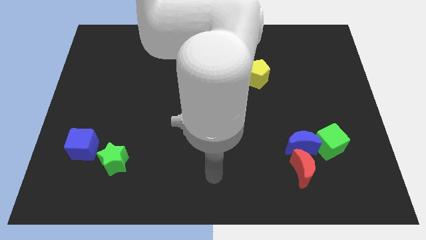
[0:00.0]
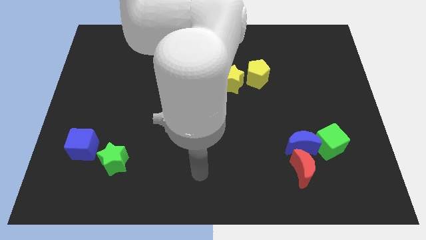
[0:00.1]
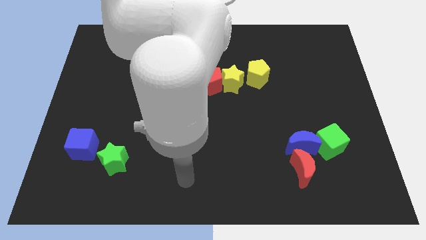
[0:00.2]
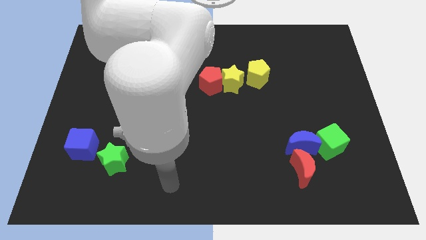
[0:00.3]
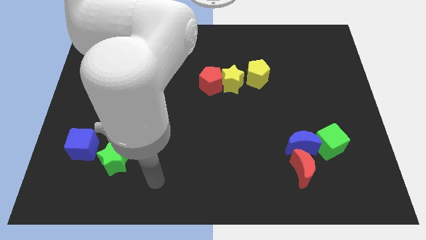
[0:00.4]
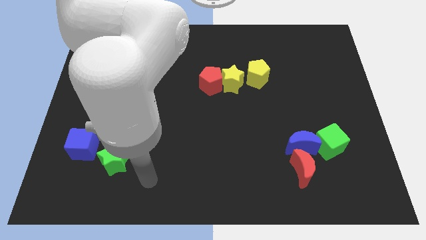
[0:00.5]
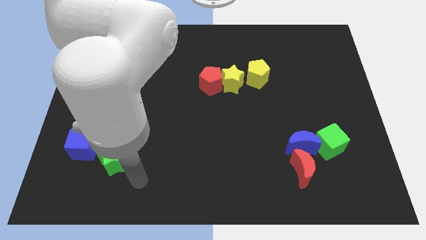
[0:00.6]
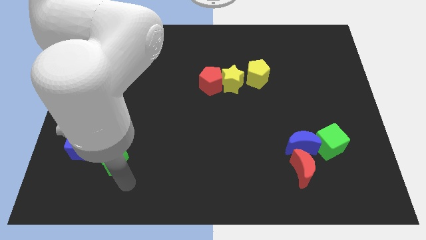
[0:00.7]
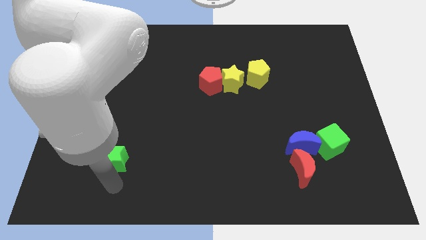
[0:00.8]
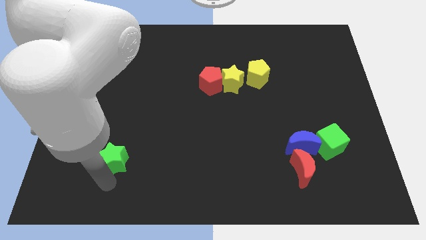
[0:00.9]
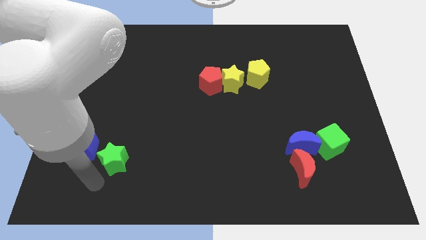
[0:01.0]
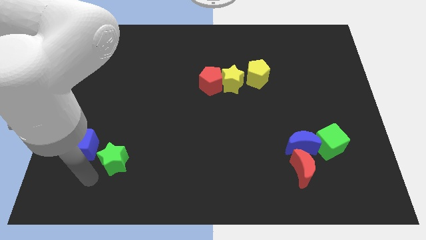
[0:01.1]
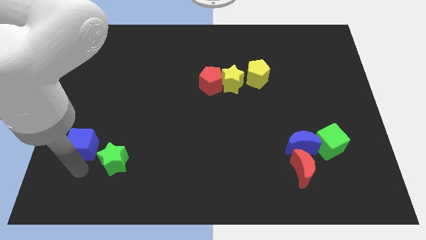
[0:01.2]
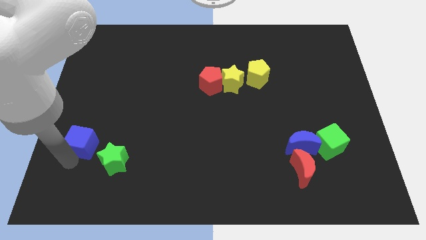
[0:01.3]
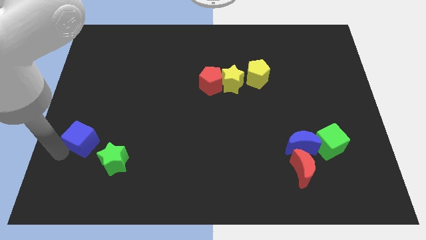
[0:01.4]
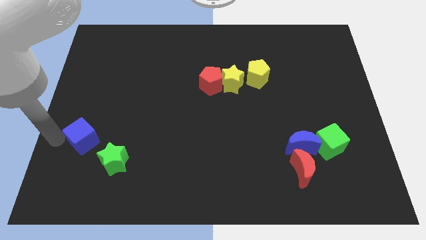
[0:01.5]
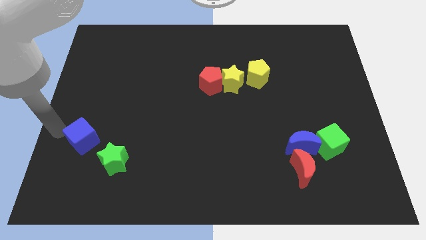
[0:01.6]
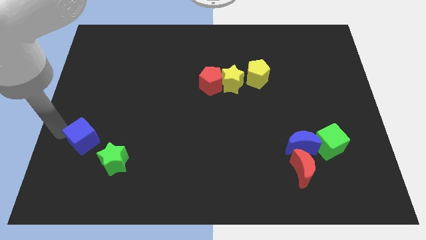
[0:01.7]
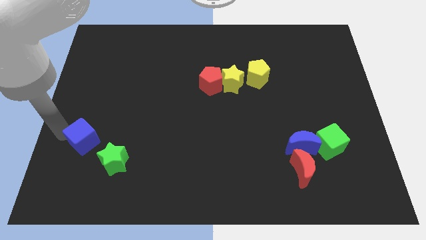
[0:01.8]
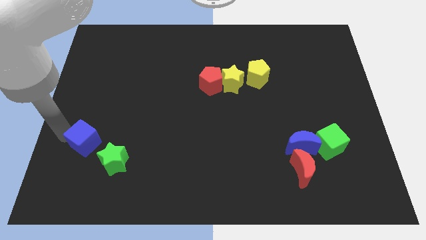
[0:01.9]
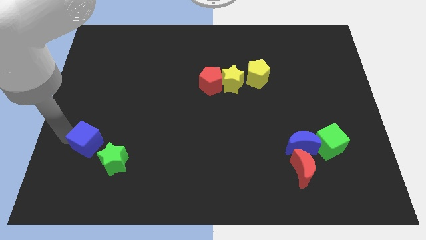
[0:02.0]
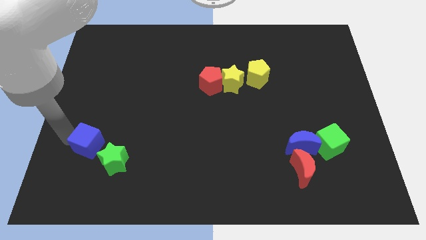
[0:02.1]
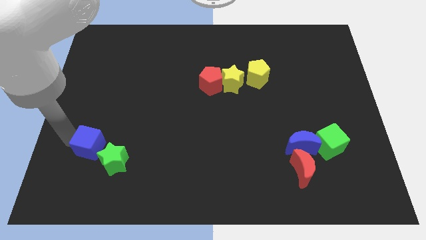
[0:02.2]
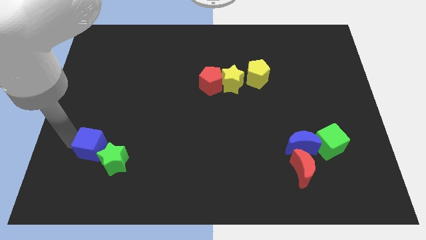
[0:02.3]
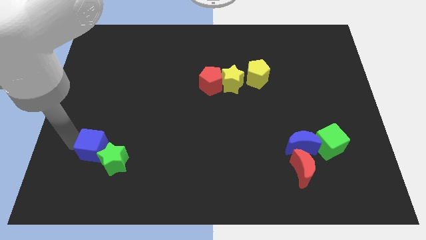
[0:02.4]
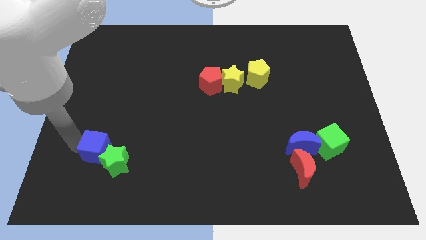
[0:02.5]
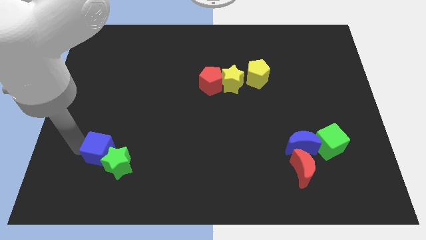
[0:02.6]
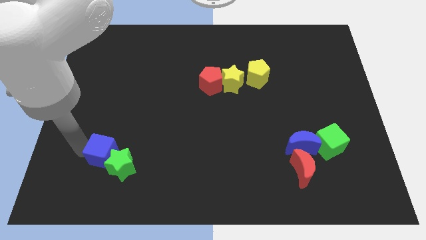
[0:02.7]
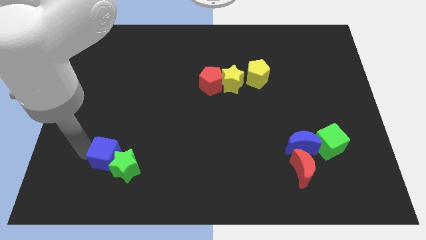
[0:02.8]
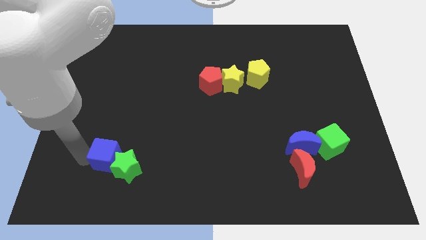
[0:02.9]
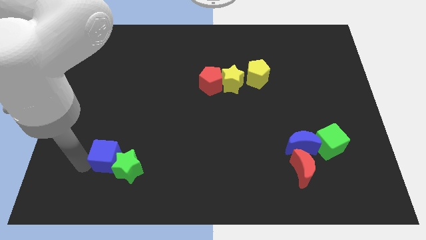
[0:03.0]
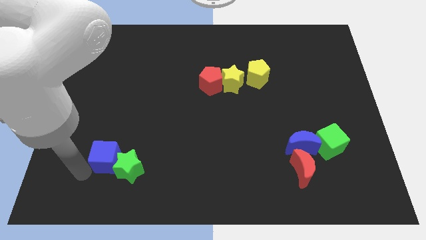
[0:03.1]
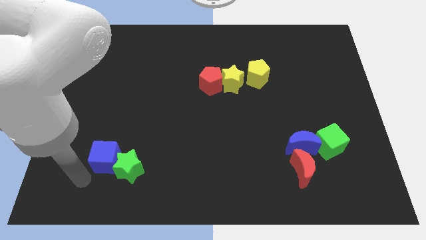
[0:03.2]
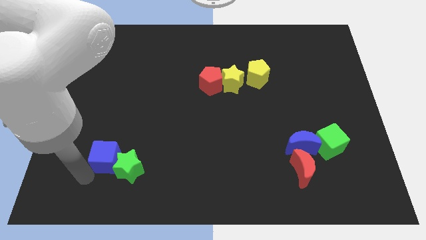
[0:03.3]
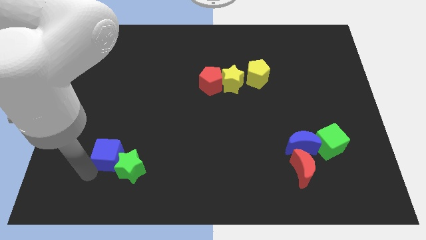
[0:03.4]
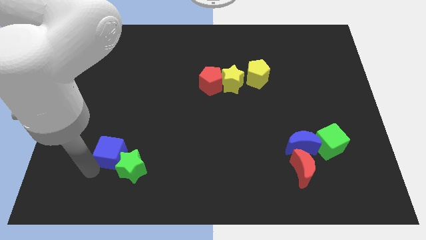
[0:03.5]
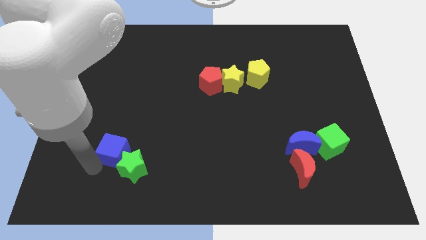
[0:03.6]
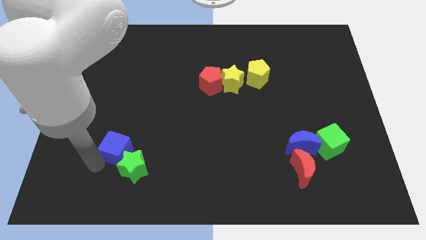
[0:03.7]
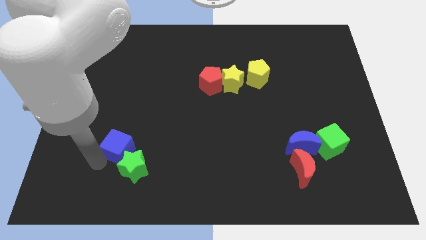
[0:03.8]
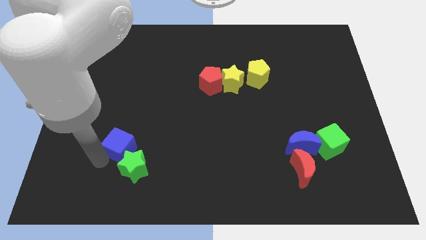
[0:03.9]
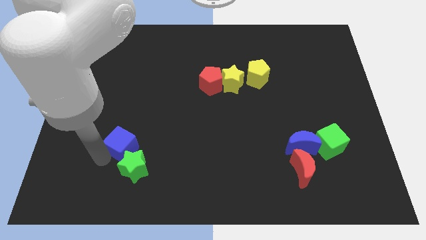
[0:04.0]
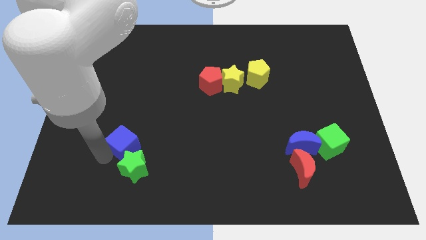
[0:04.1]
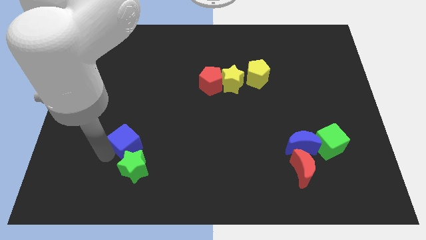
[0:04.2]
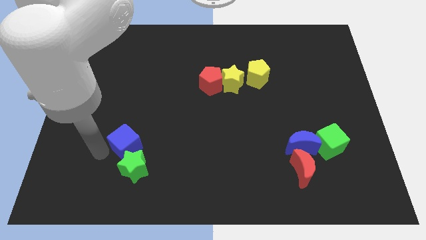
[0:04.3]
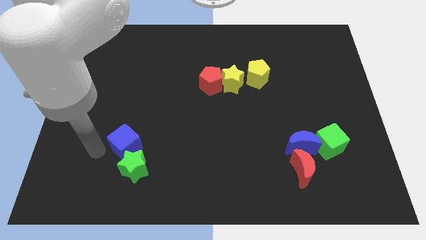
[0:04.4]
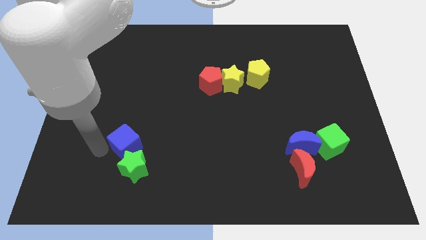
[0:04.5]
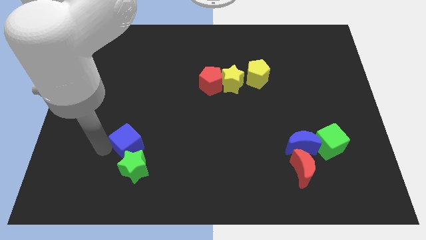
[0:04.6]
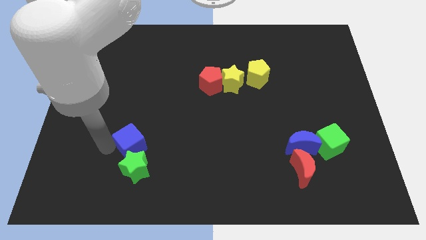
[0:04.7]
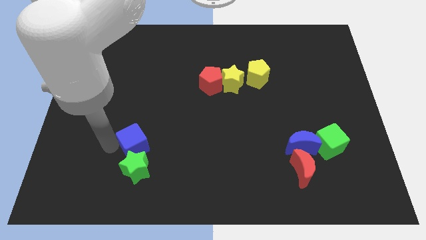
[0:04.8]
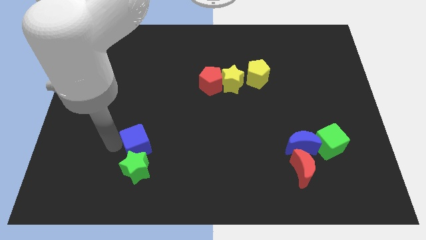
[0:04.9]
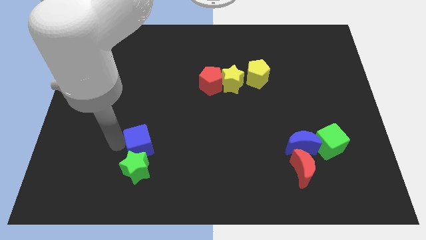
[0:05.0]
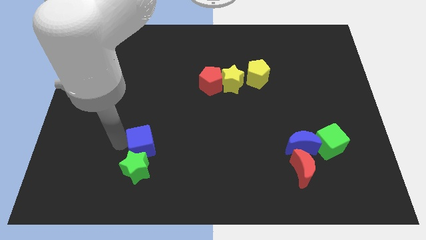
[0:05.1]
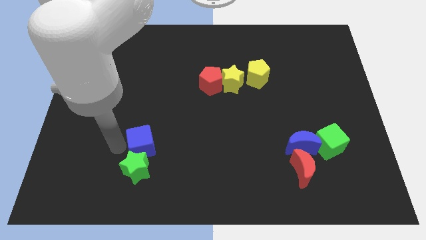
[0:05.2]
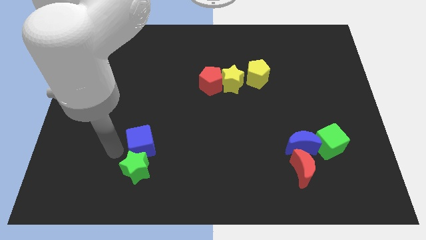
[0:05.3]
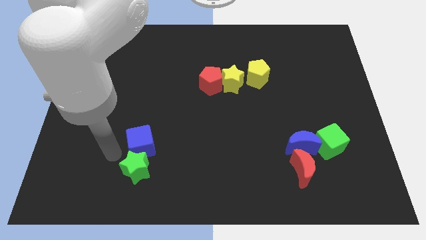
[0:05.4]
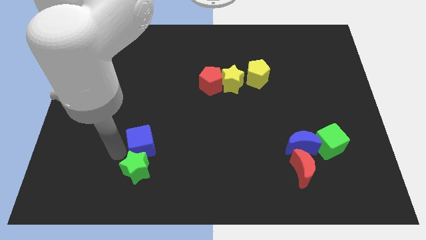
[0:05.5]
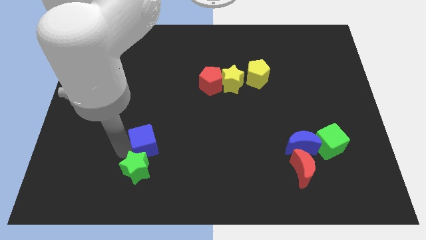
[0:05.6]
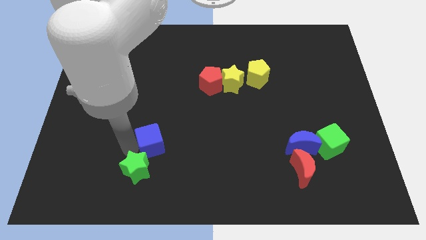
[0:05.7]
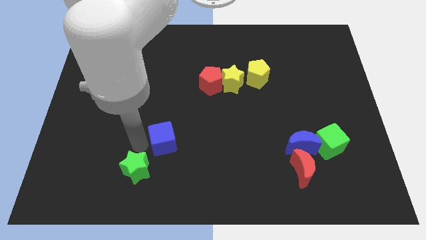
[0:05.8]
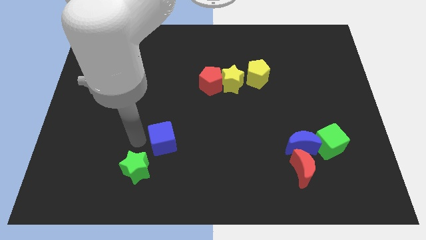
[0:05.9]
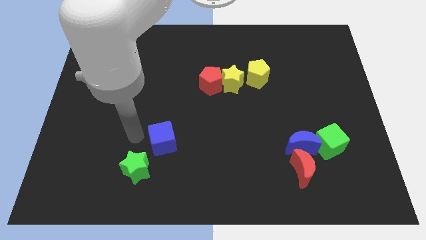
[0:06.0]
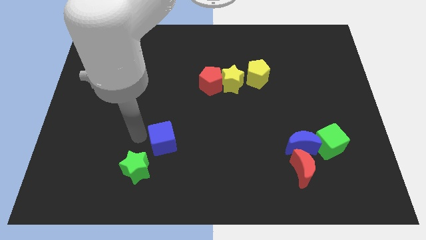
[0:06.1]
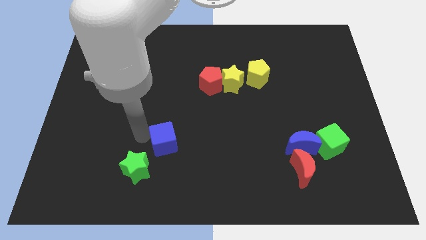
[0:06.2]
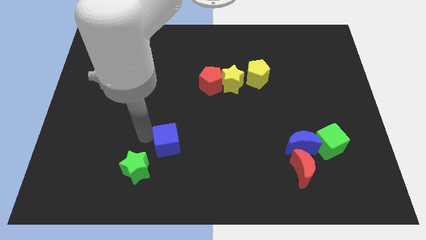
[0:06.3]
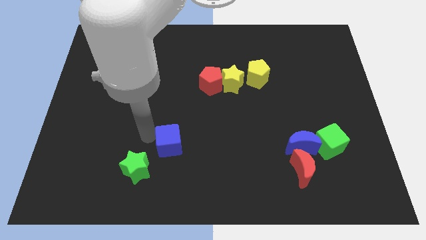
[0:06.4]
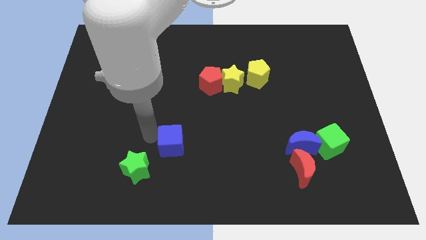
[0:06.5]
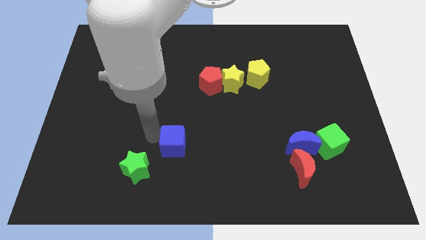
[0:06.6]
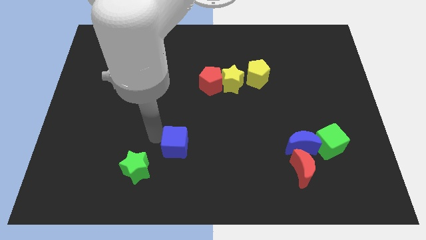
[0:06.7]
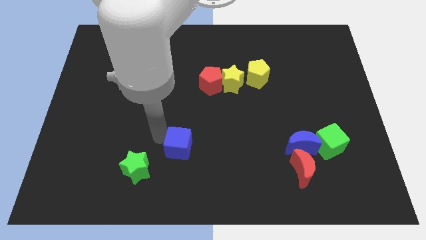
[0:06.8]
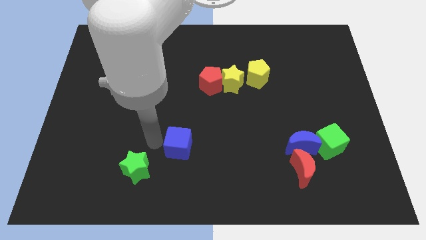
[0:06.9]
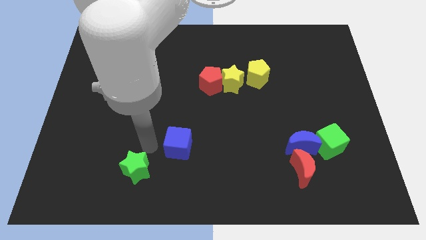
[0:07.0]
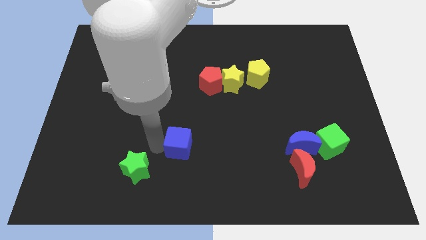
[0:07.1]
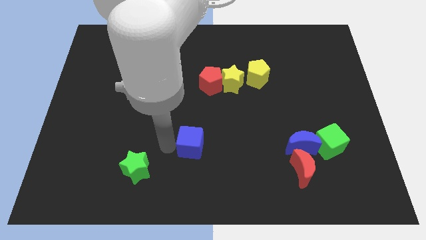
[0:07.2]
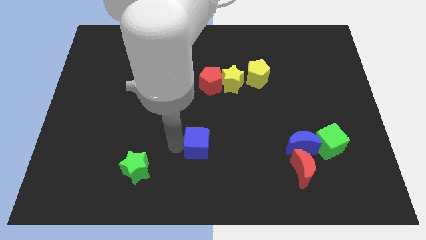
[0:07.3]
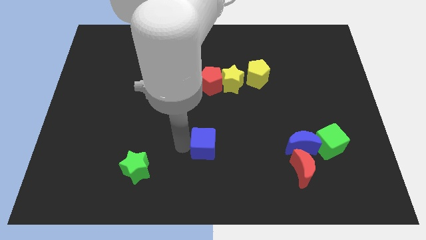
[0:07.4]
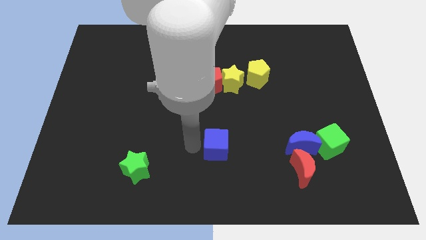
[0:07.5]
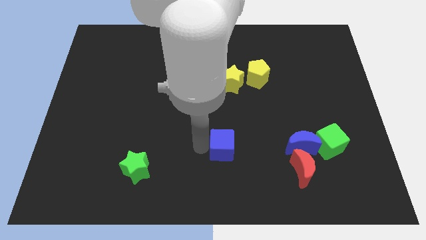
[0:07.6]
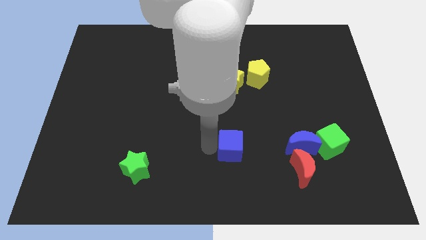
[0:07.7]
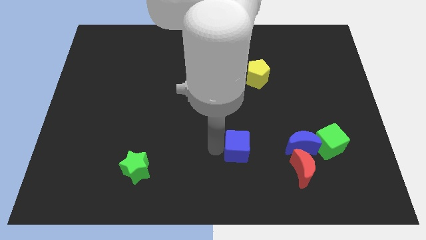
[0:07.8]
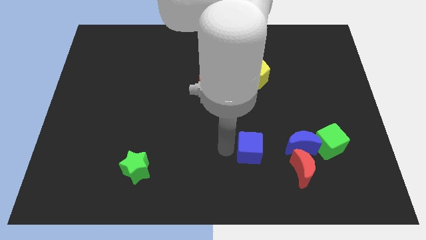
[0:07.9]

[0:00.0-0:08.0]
move the blue cube to the top left of the red moon
